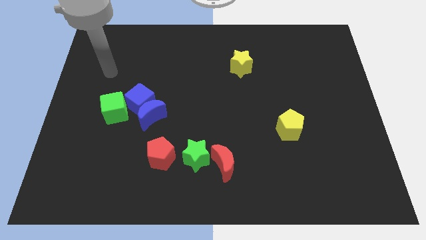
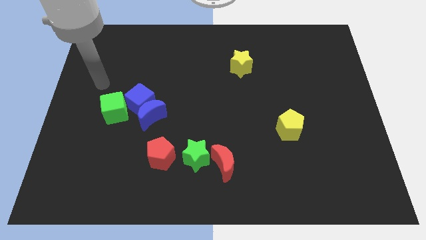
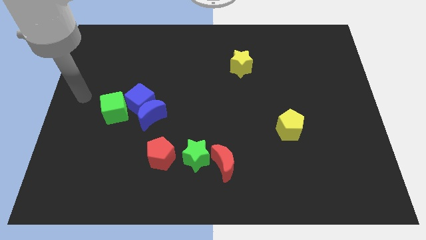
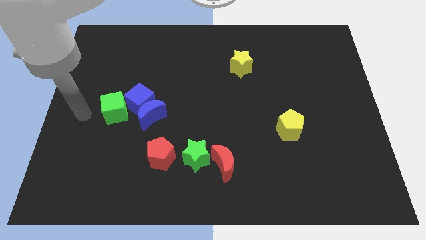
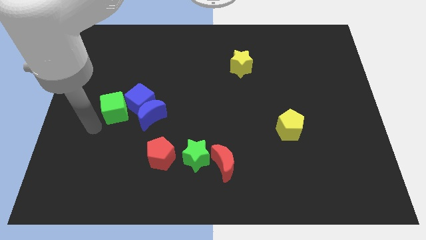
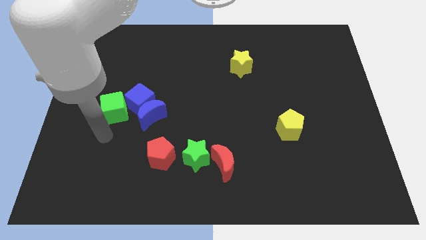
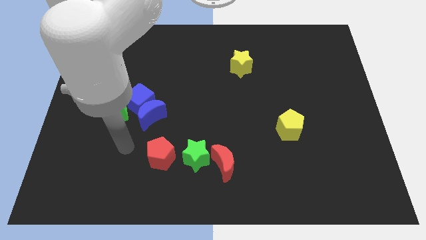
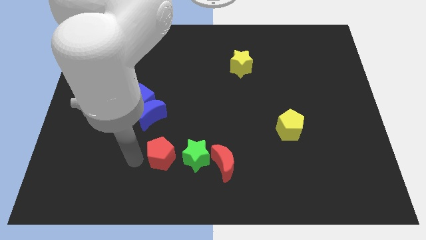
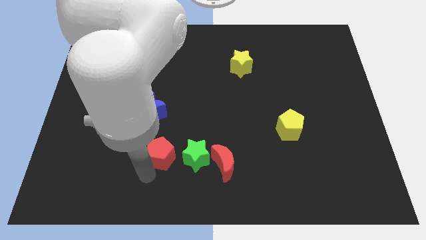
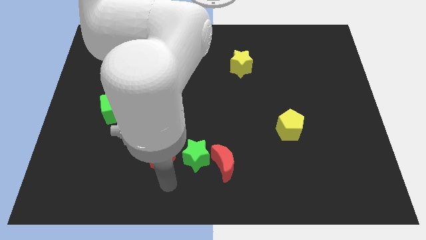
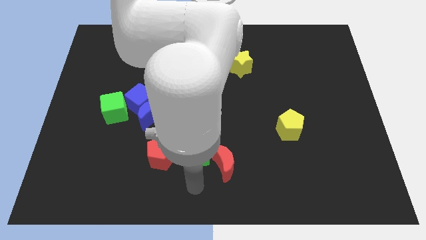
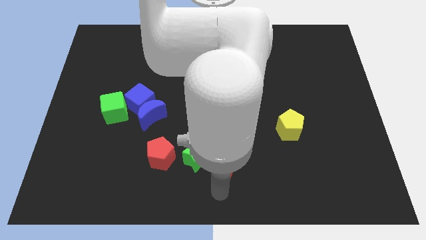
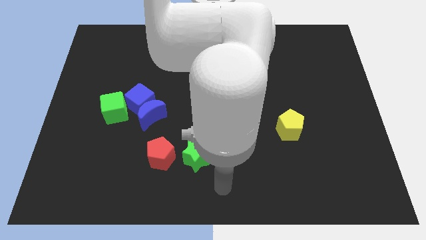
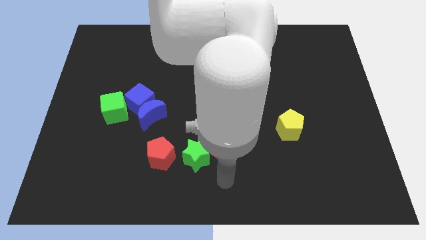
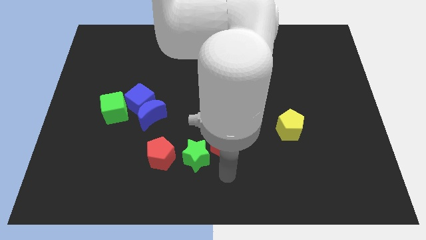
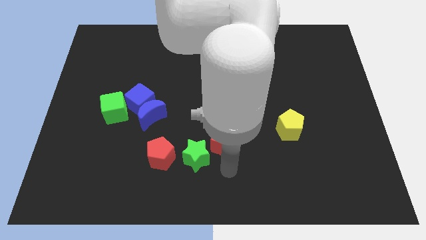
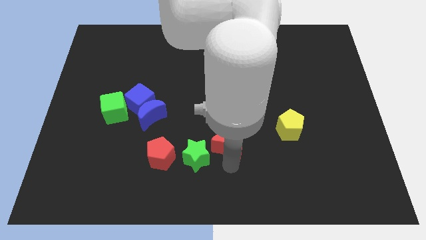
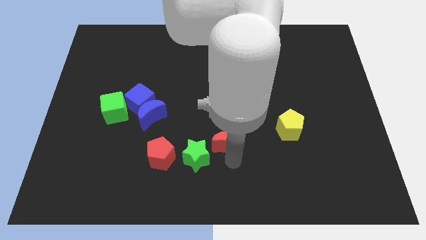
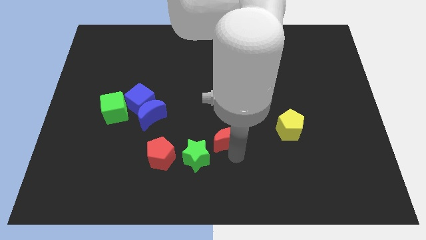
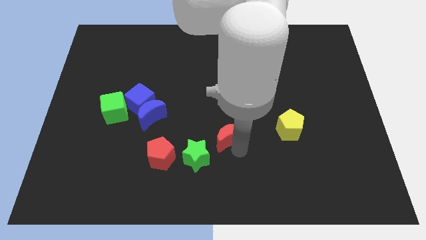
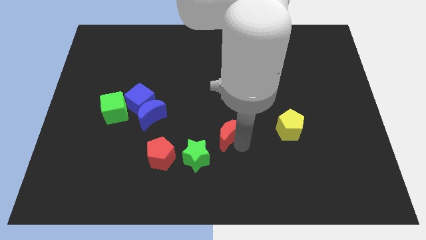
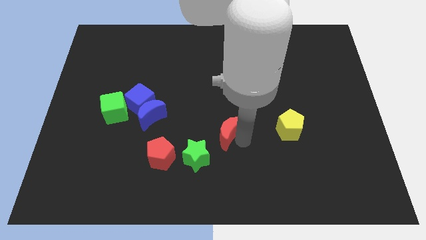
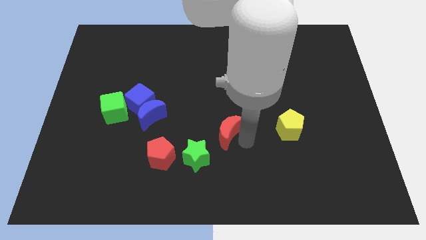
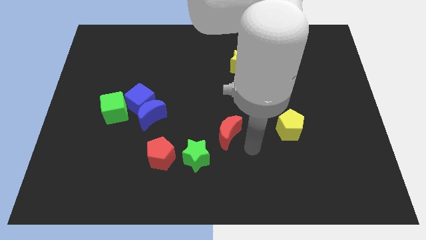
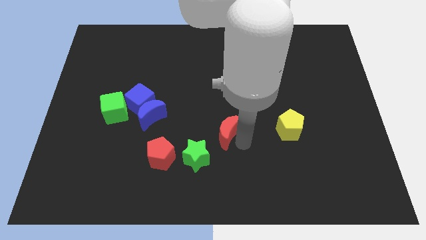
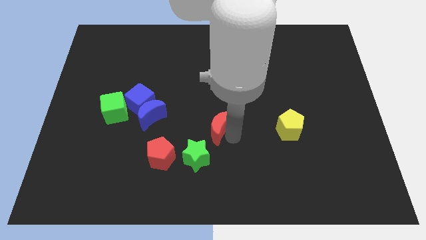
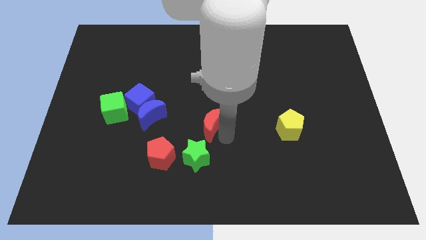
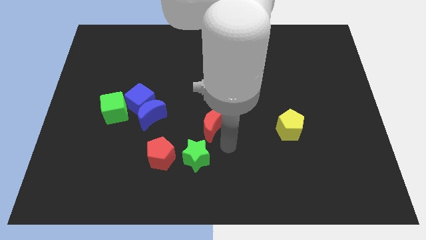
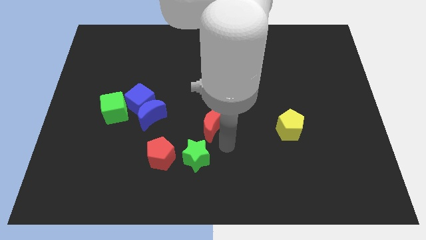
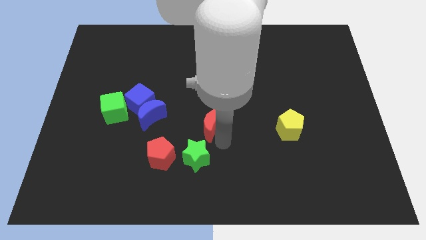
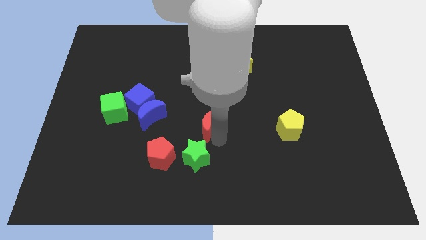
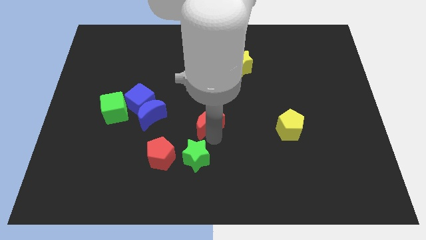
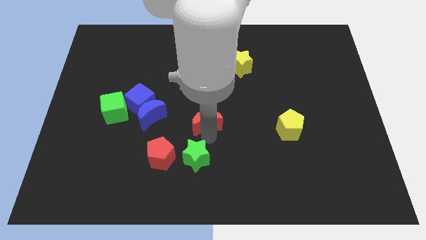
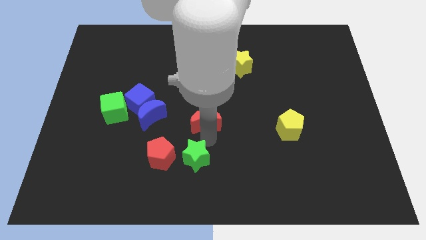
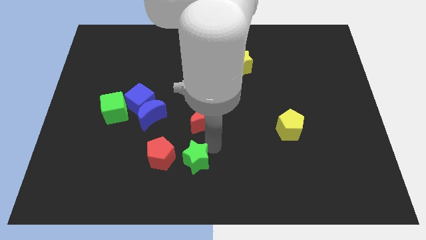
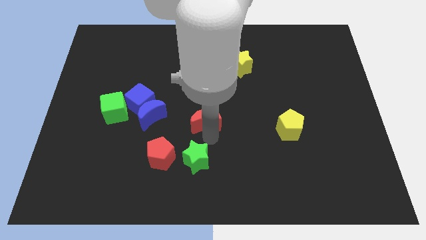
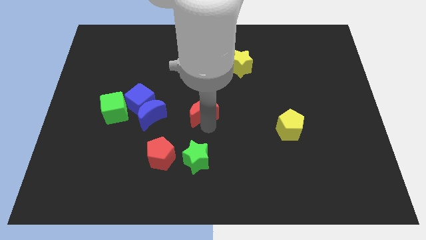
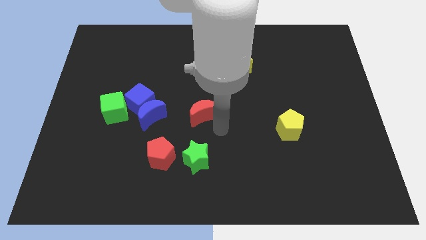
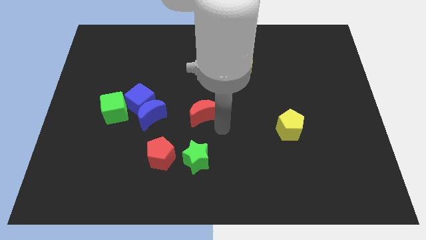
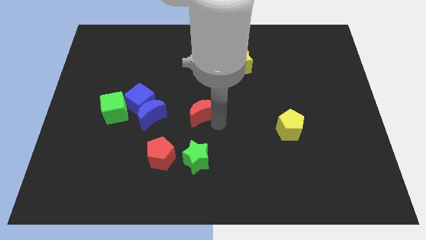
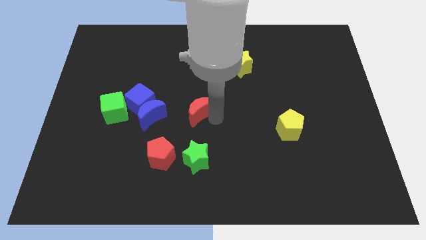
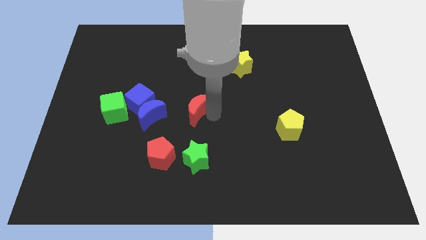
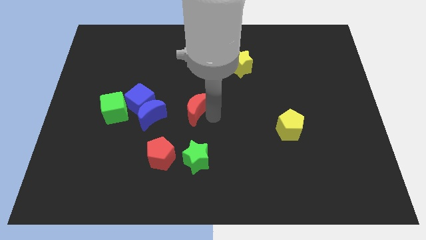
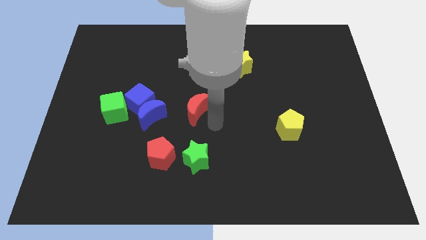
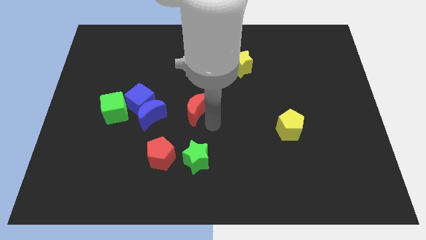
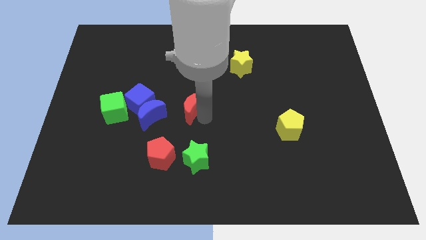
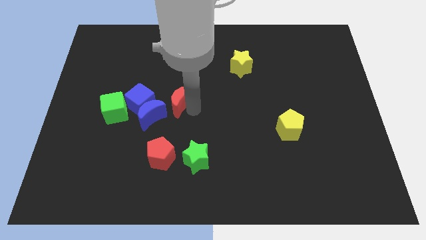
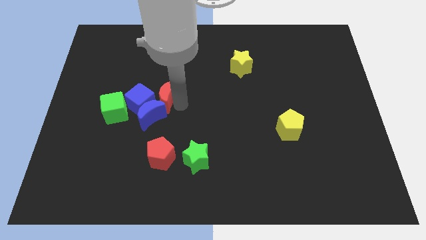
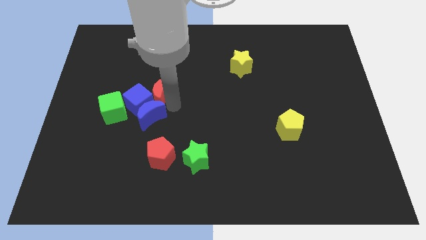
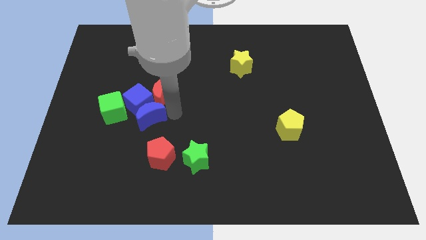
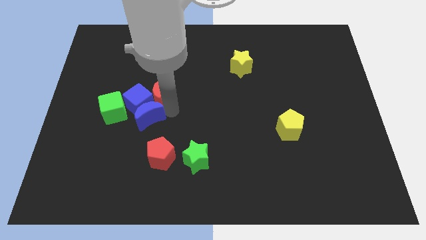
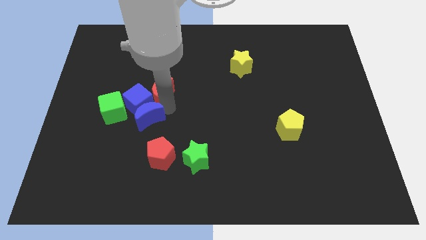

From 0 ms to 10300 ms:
put the red moon to the top right side of the green cube

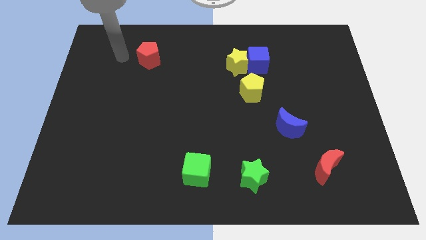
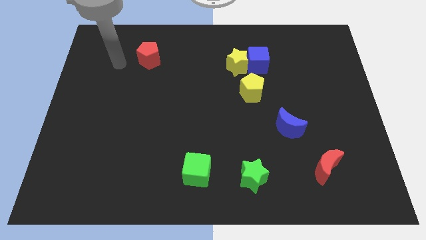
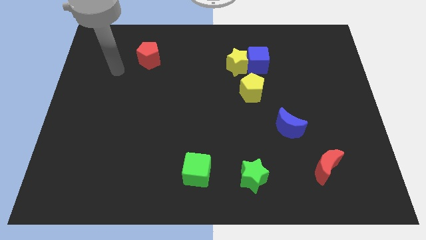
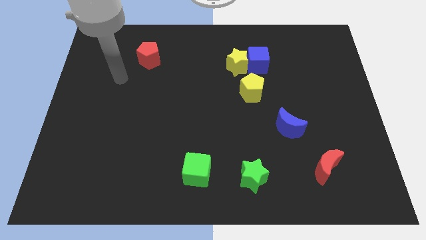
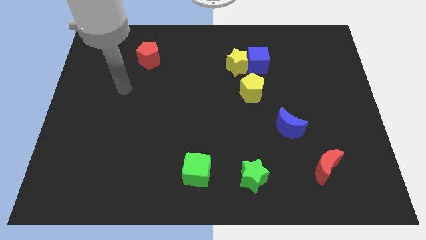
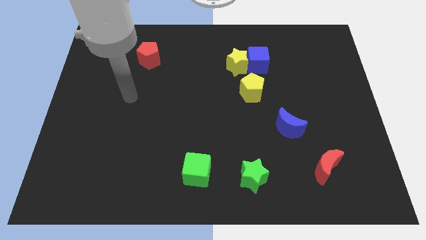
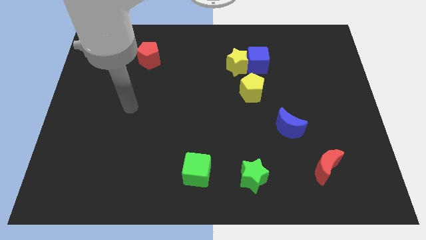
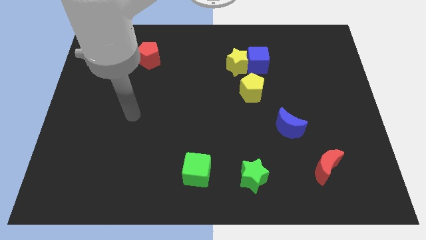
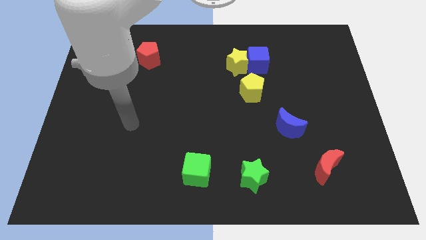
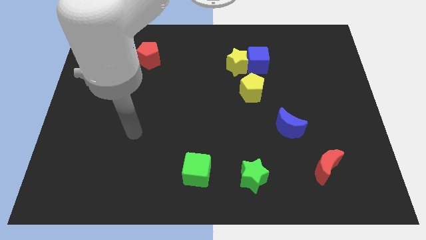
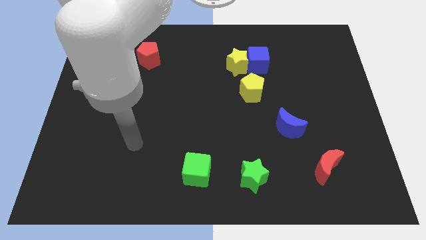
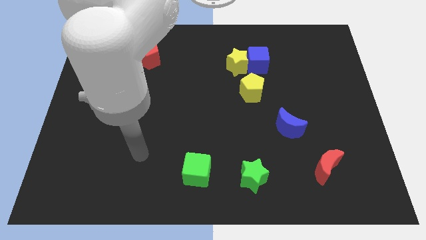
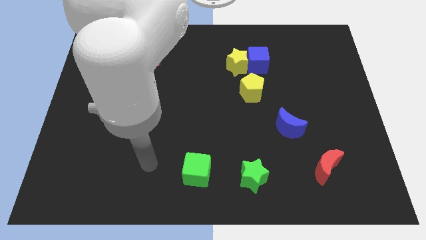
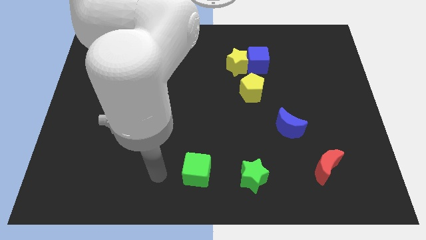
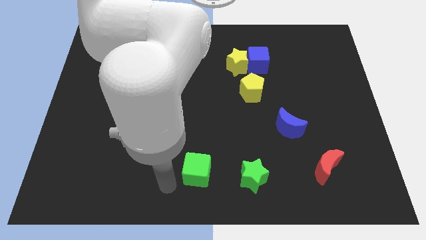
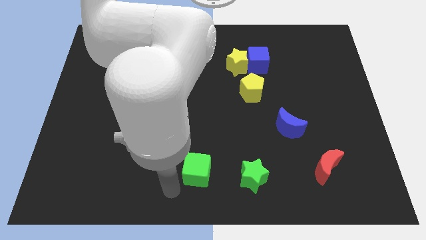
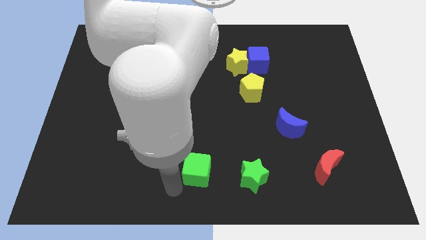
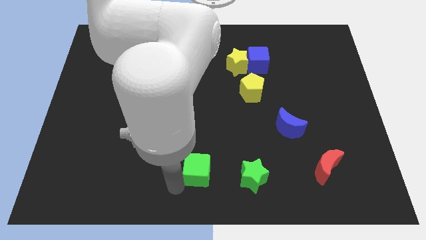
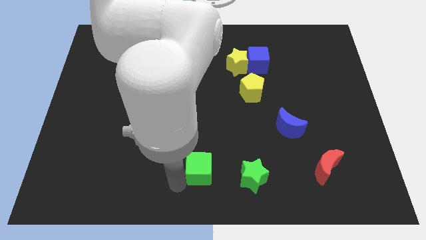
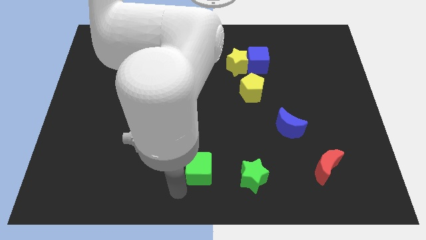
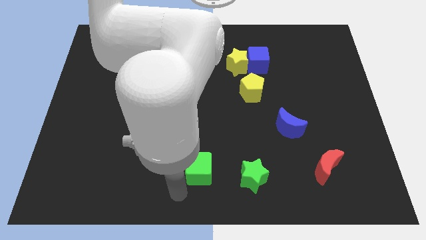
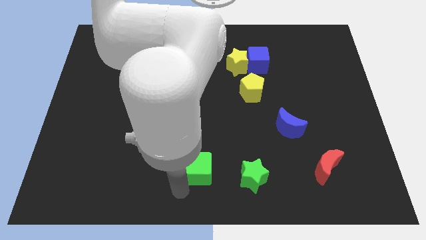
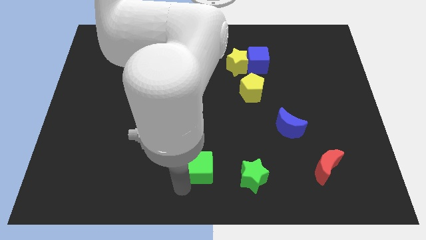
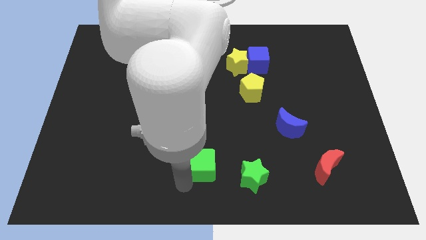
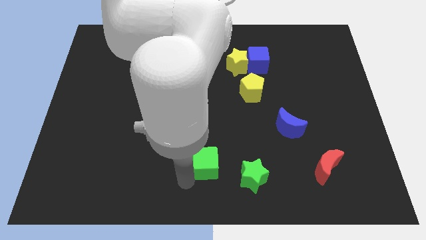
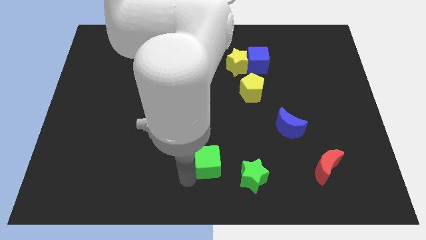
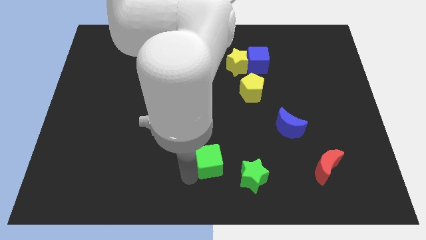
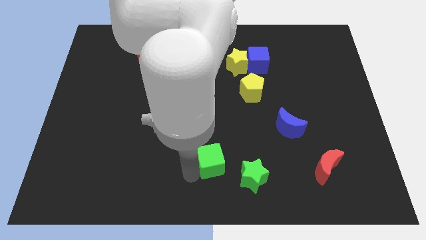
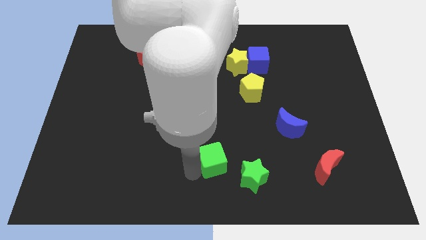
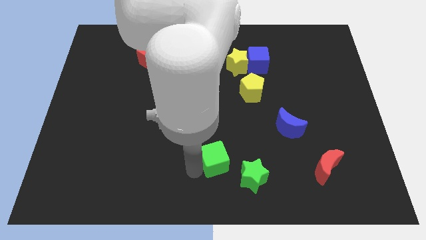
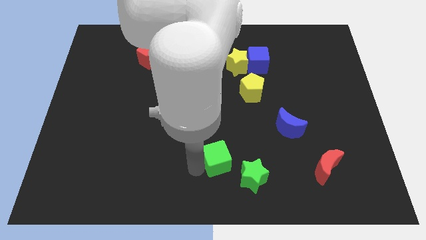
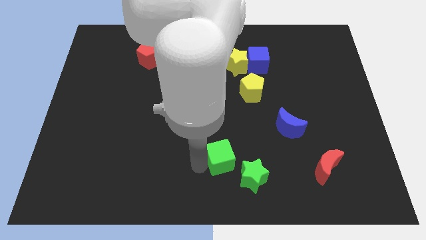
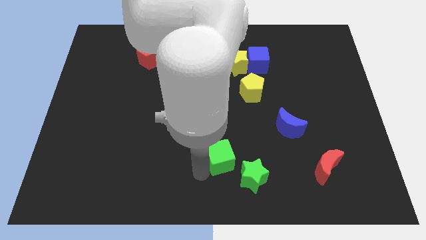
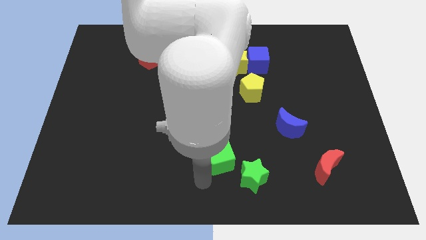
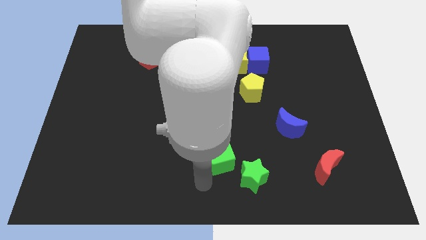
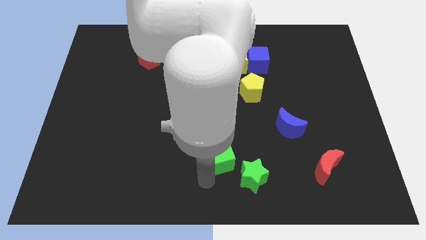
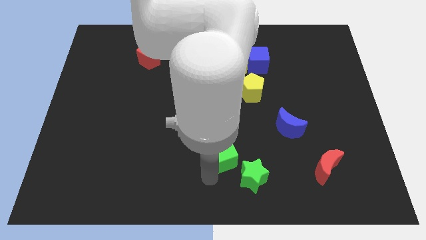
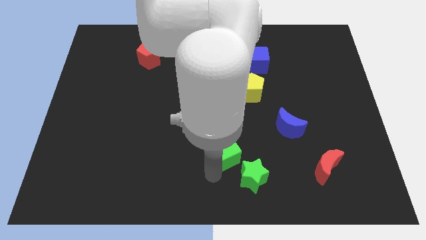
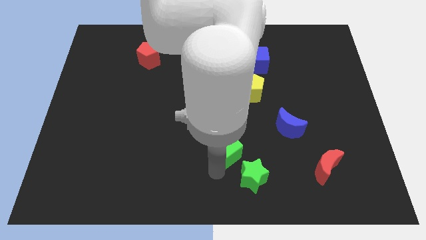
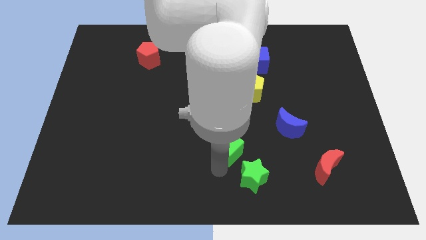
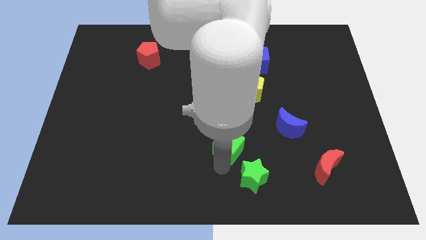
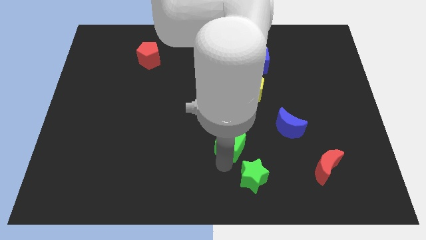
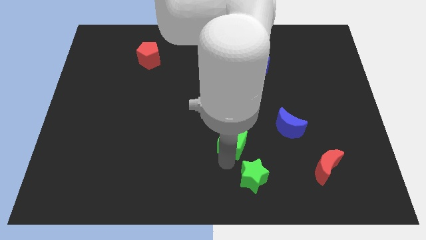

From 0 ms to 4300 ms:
slide the green cube to the left of the blue moon
